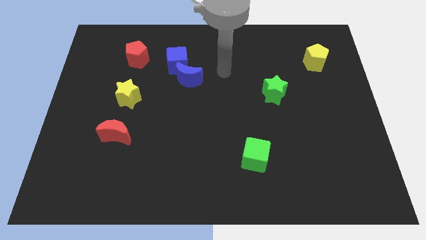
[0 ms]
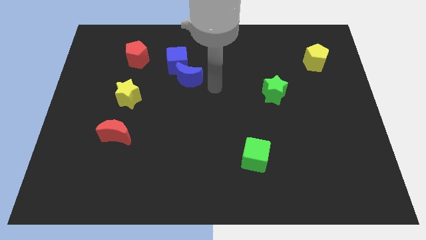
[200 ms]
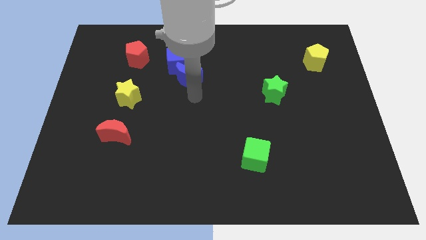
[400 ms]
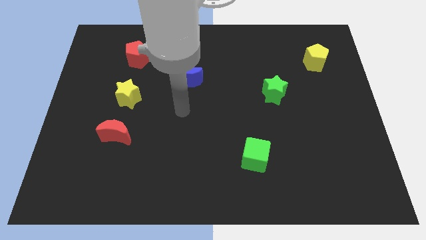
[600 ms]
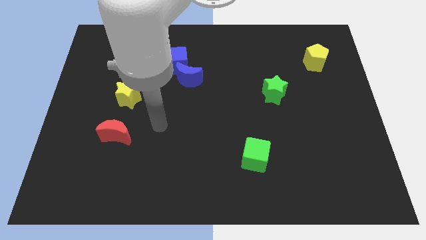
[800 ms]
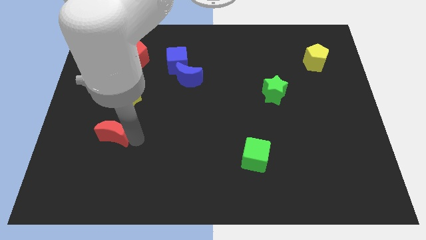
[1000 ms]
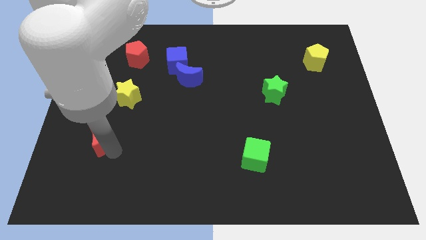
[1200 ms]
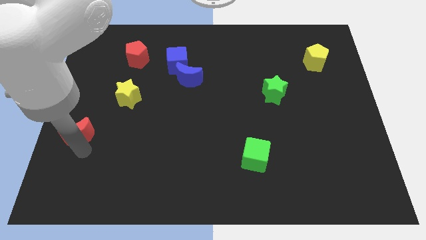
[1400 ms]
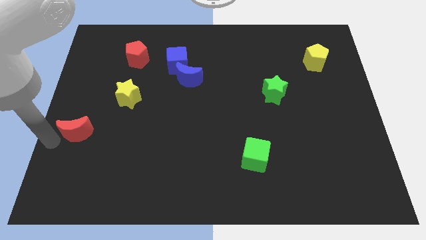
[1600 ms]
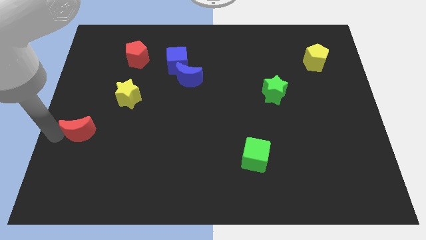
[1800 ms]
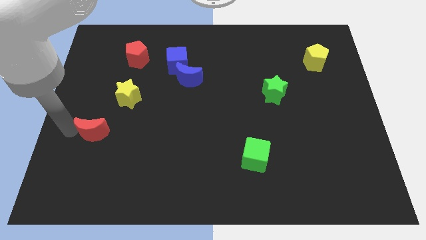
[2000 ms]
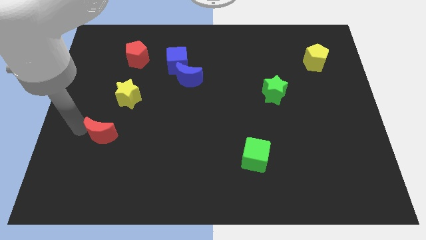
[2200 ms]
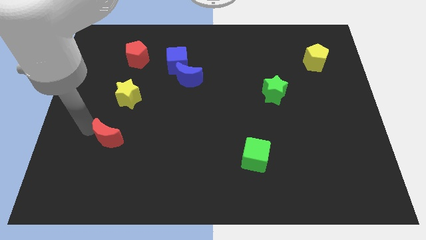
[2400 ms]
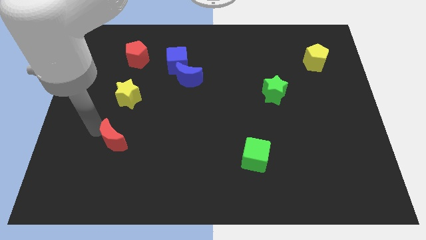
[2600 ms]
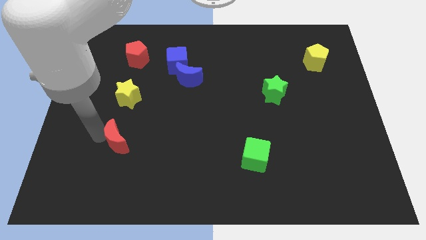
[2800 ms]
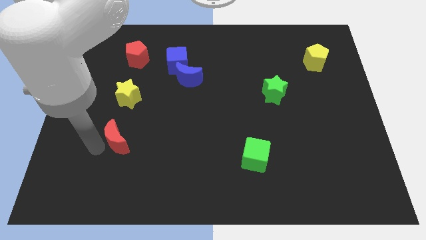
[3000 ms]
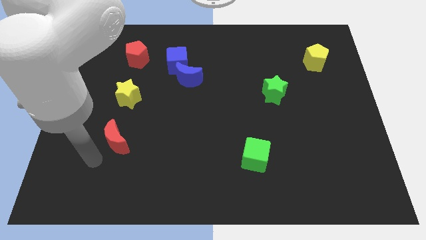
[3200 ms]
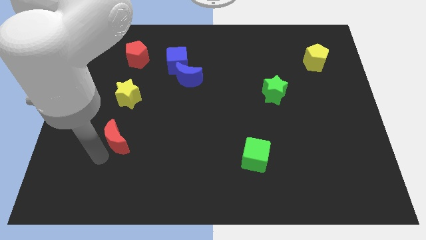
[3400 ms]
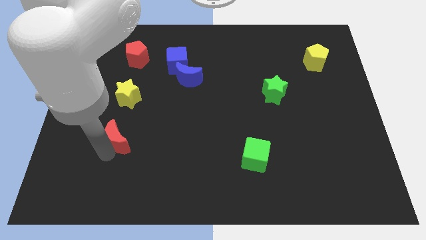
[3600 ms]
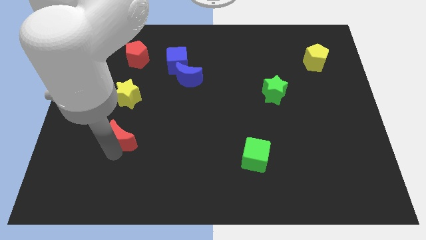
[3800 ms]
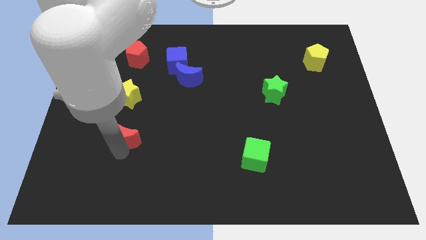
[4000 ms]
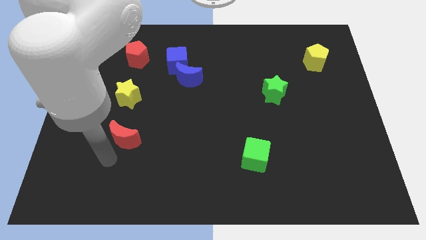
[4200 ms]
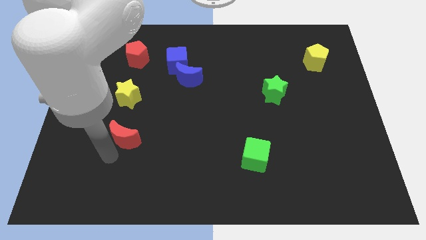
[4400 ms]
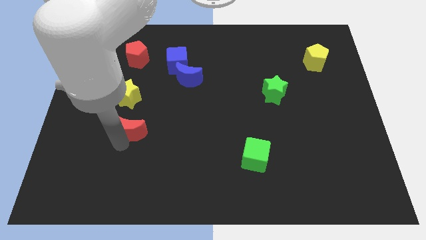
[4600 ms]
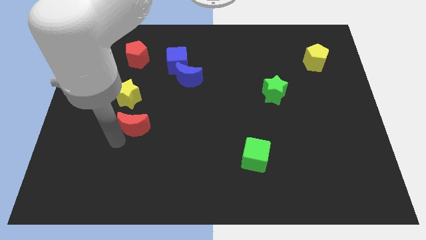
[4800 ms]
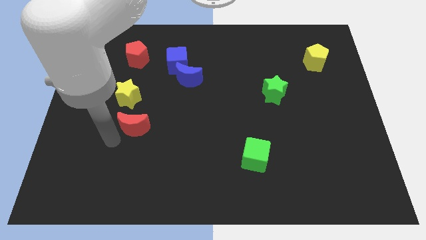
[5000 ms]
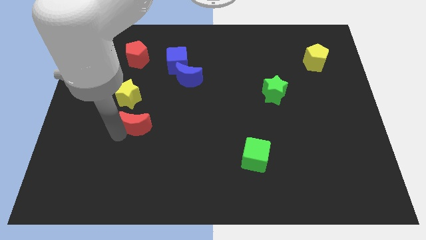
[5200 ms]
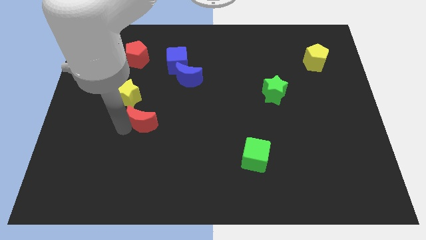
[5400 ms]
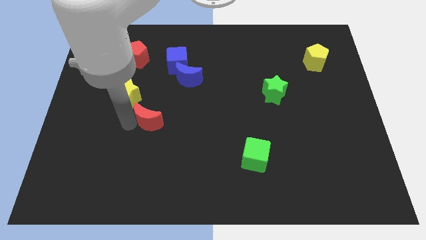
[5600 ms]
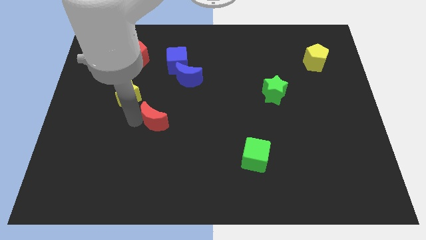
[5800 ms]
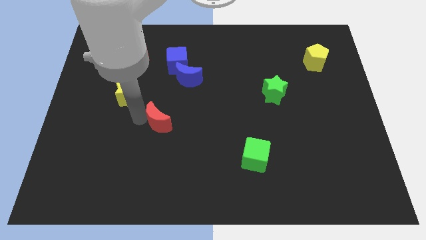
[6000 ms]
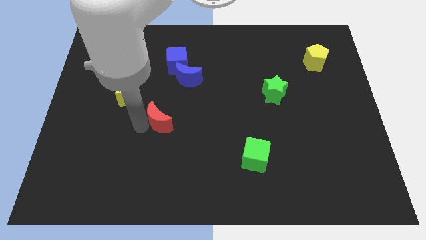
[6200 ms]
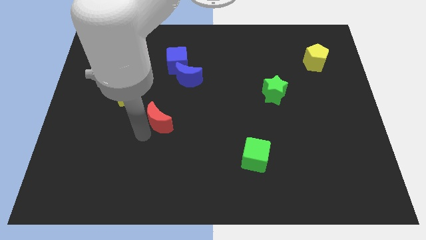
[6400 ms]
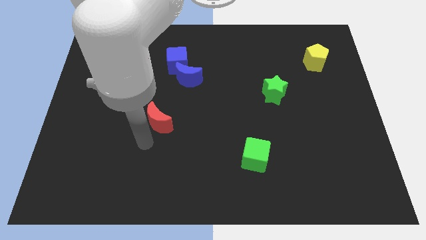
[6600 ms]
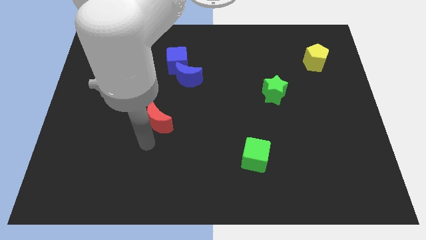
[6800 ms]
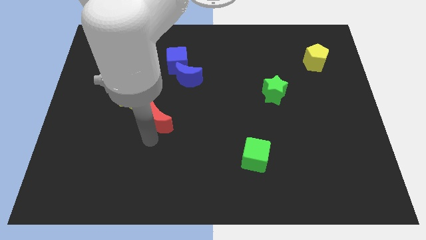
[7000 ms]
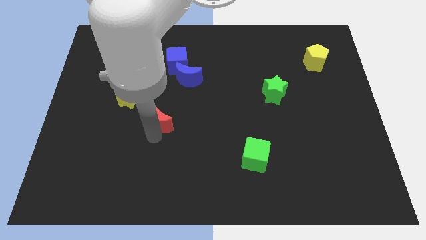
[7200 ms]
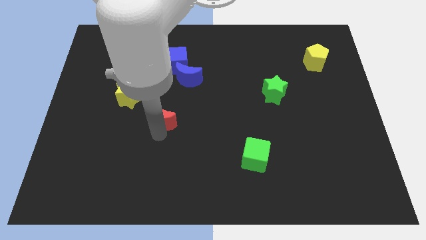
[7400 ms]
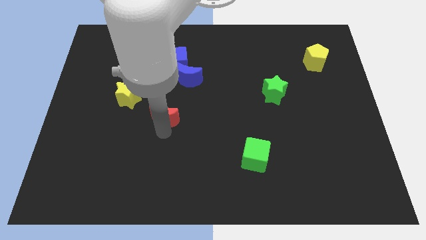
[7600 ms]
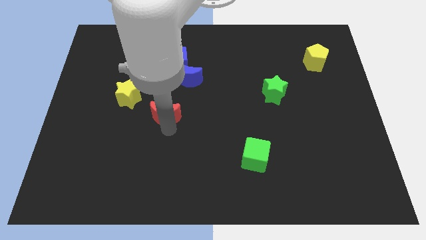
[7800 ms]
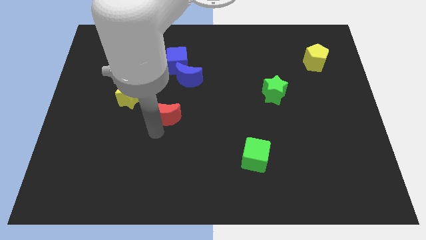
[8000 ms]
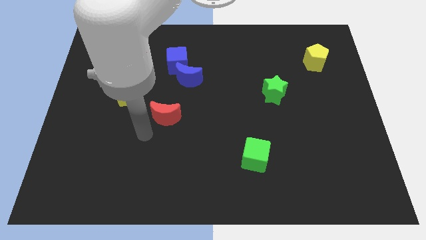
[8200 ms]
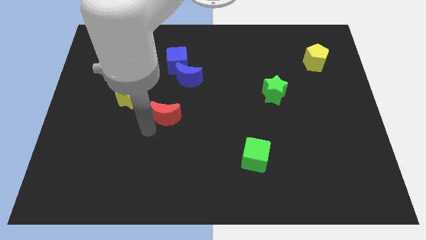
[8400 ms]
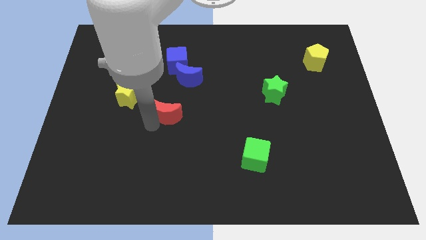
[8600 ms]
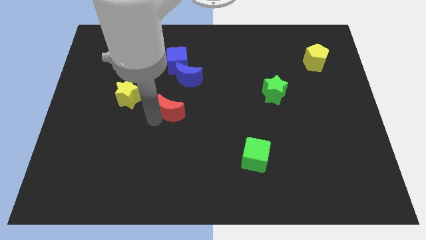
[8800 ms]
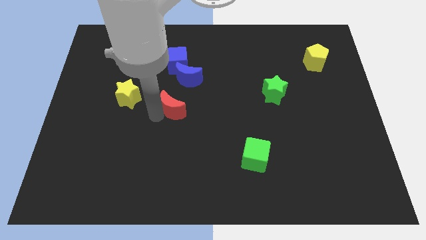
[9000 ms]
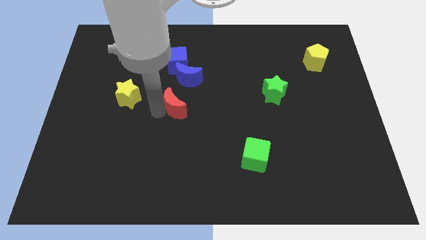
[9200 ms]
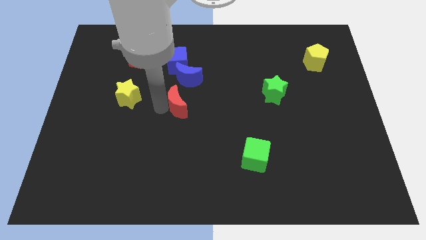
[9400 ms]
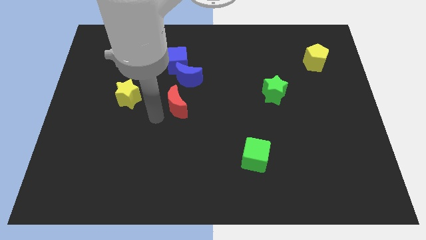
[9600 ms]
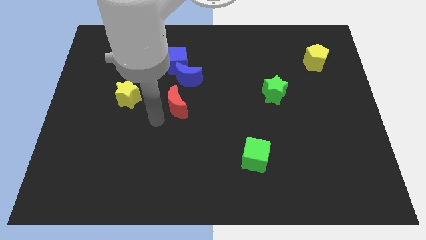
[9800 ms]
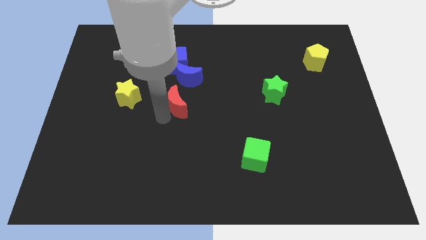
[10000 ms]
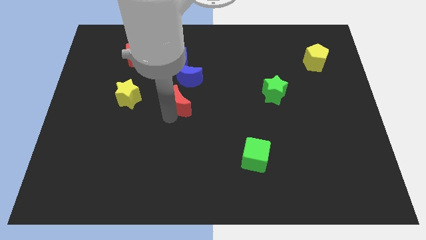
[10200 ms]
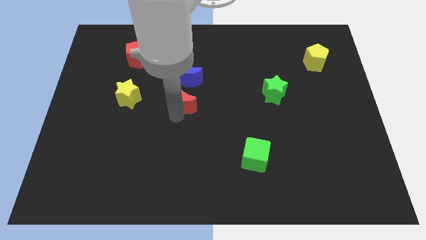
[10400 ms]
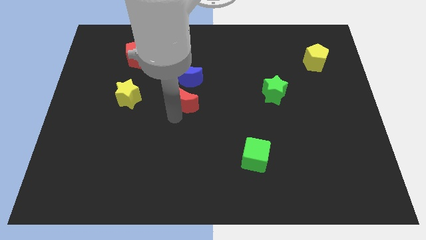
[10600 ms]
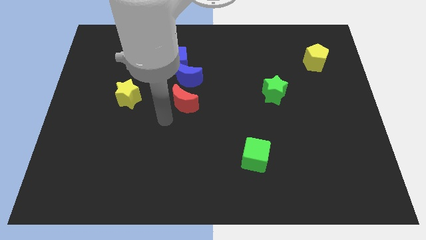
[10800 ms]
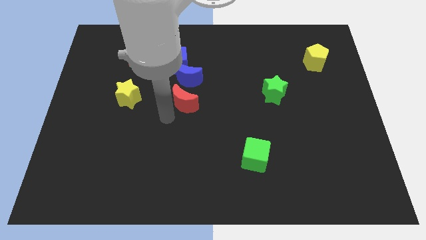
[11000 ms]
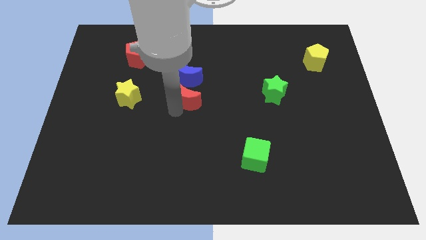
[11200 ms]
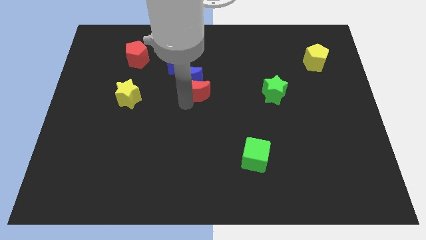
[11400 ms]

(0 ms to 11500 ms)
slide the red moon diagonally down and to the right of the blue cube

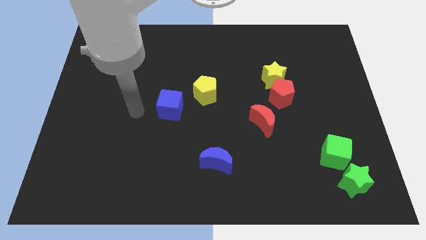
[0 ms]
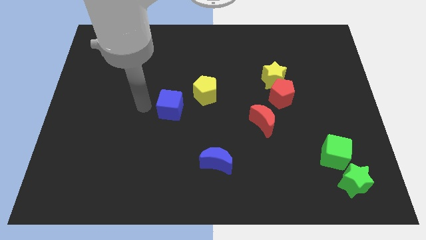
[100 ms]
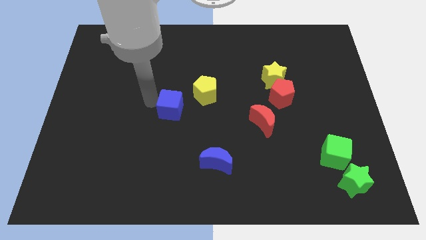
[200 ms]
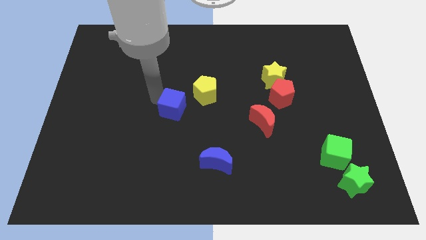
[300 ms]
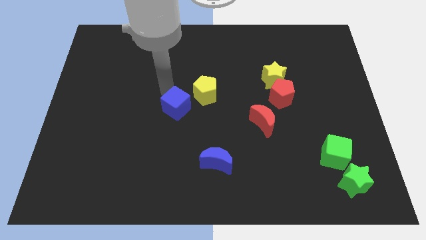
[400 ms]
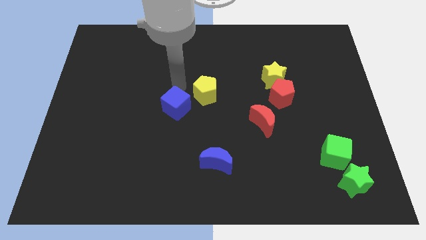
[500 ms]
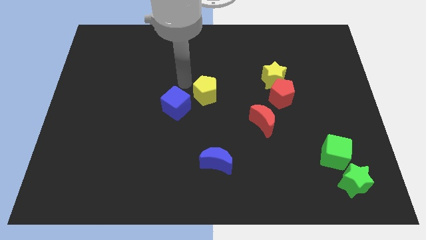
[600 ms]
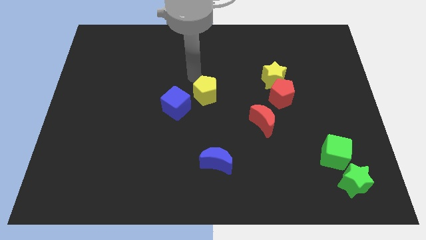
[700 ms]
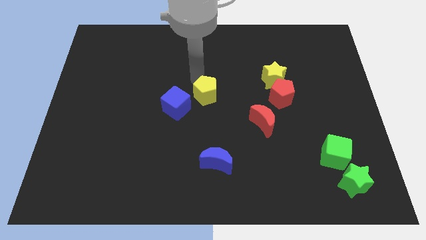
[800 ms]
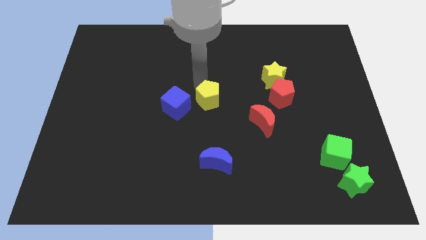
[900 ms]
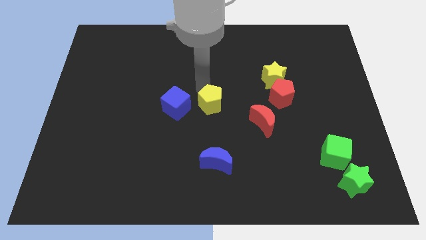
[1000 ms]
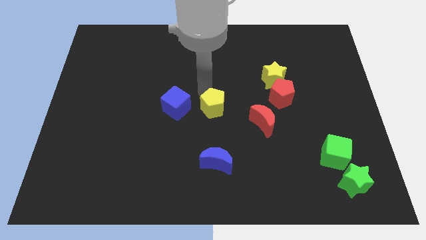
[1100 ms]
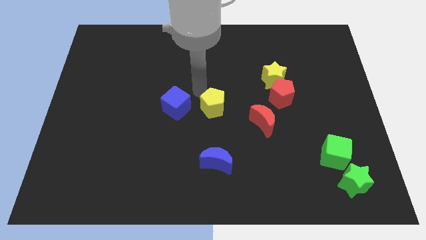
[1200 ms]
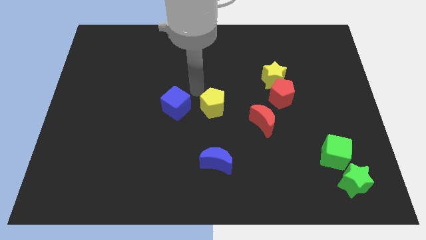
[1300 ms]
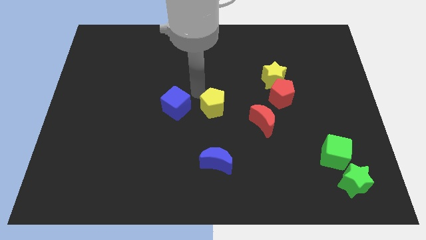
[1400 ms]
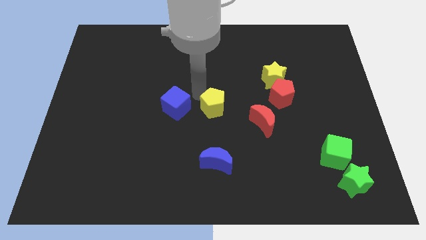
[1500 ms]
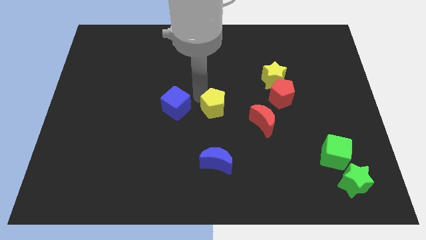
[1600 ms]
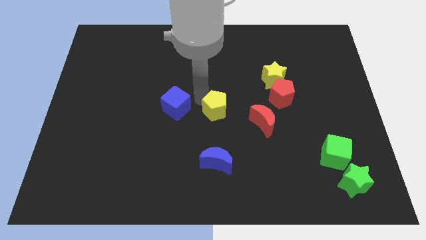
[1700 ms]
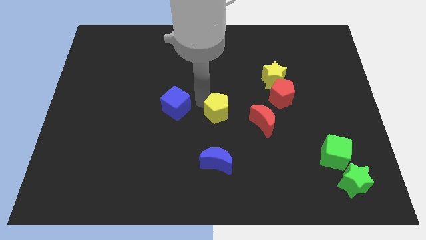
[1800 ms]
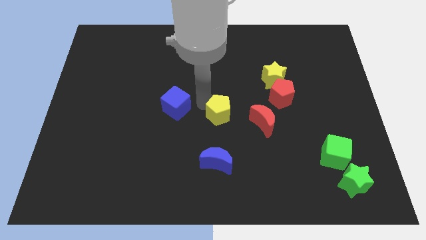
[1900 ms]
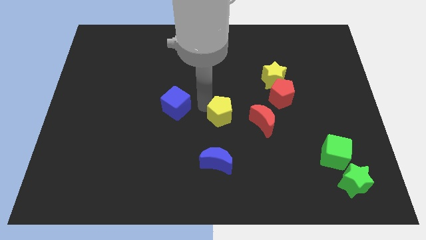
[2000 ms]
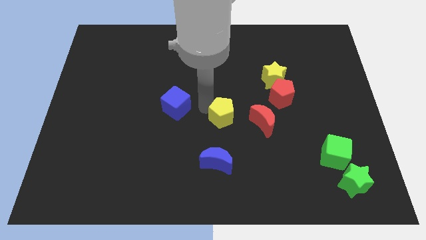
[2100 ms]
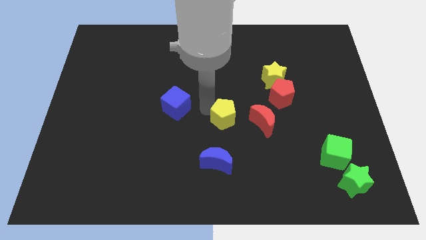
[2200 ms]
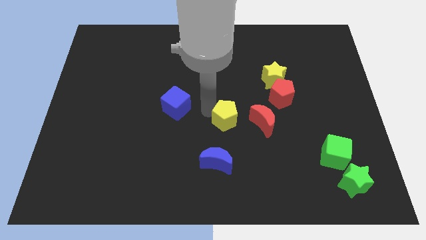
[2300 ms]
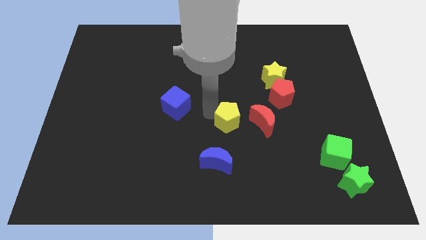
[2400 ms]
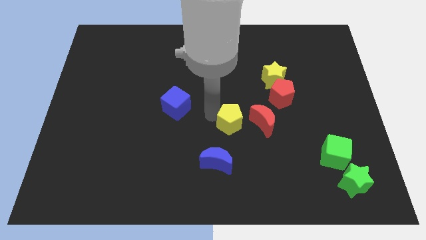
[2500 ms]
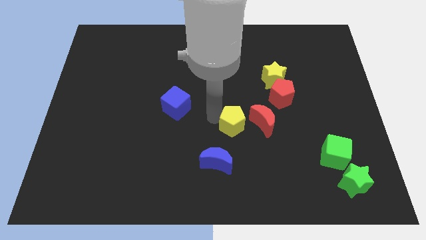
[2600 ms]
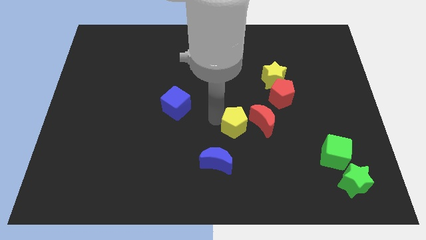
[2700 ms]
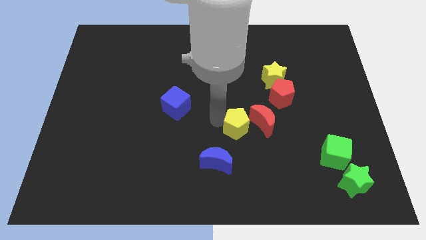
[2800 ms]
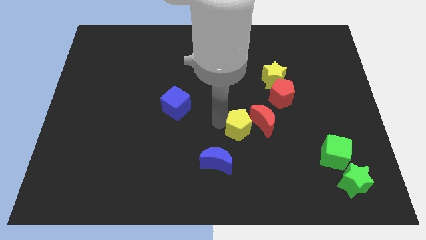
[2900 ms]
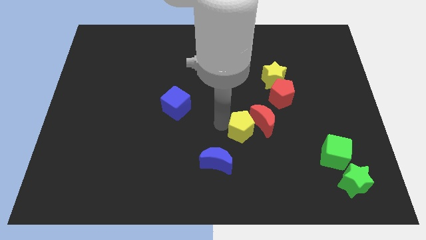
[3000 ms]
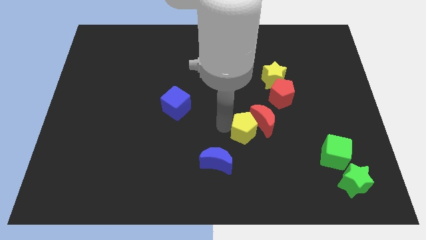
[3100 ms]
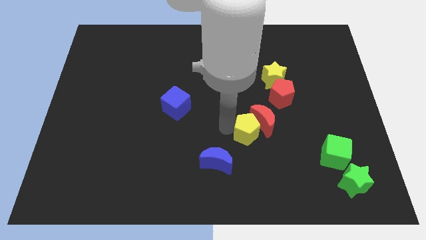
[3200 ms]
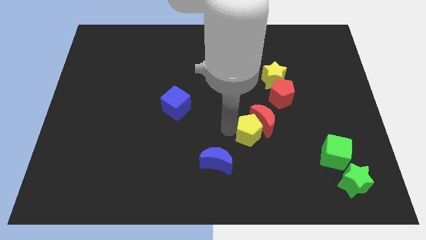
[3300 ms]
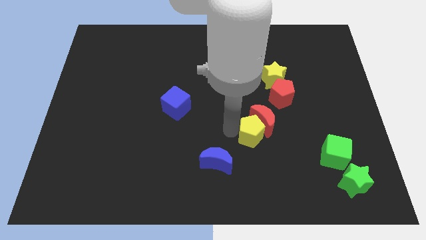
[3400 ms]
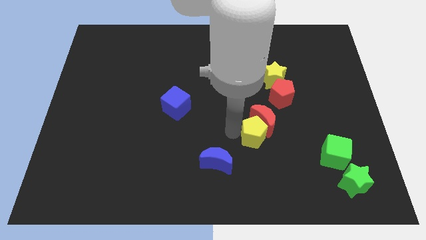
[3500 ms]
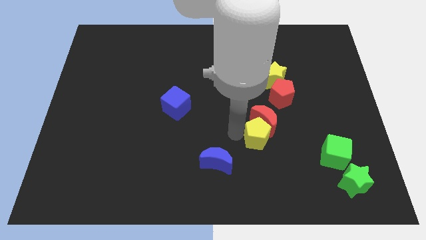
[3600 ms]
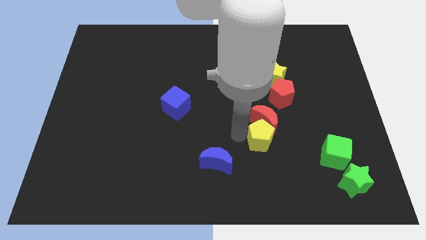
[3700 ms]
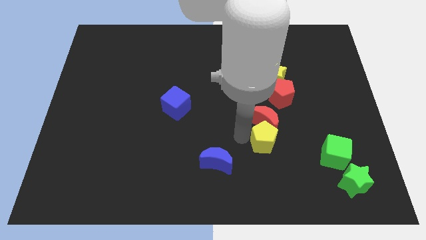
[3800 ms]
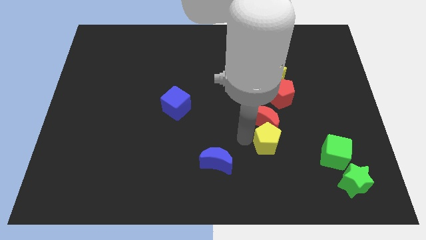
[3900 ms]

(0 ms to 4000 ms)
put the yellow pentagon to the bottom side of the red pentagon
